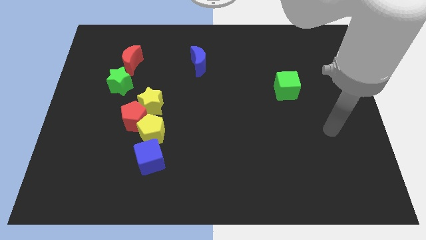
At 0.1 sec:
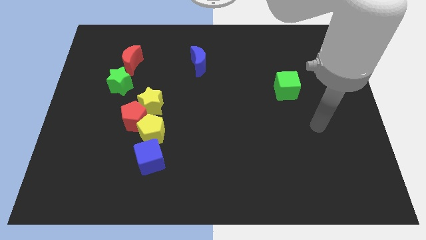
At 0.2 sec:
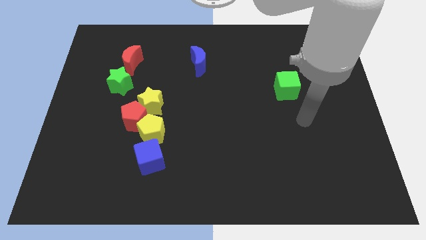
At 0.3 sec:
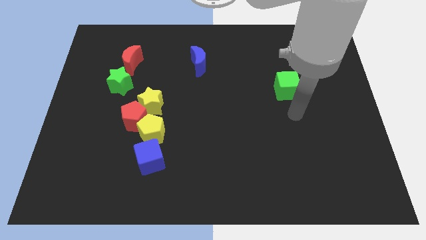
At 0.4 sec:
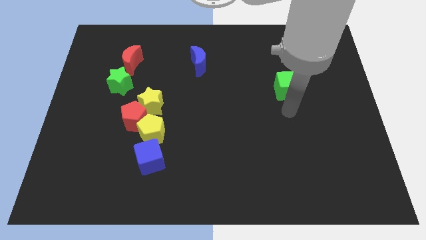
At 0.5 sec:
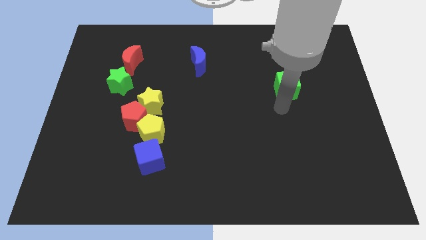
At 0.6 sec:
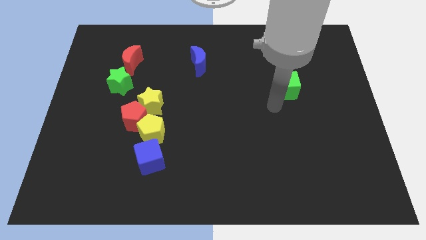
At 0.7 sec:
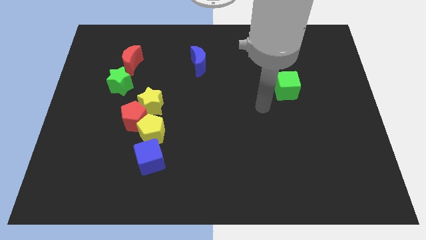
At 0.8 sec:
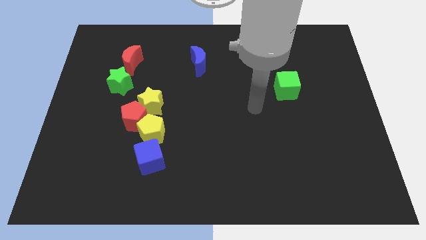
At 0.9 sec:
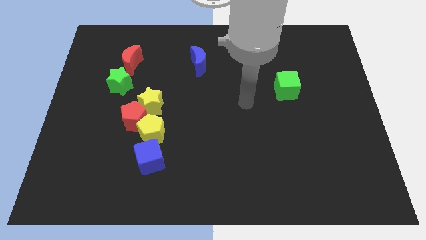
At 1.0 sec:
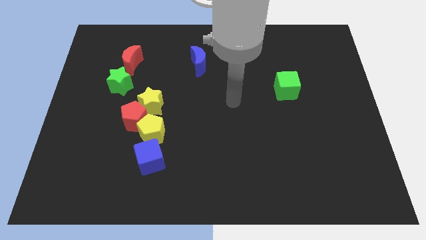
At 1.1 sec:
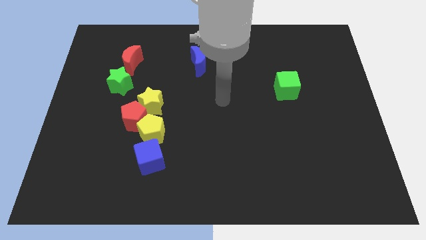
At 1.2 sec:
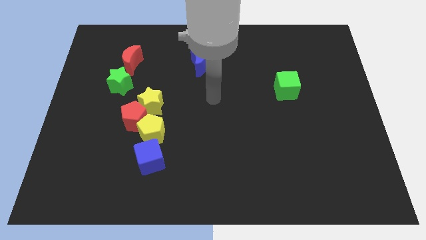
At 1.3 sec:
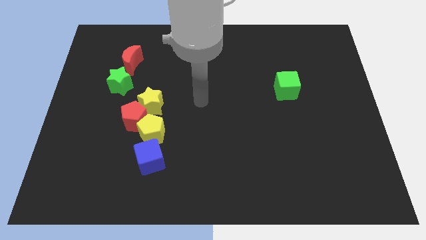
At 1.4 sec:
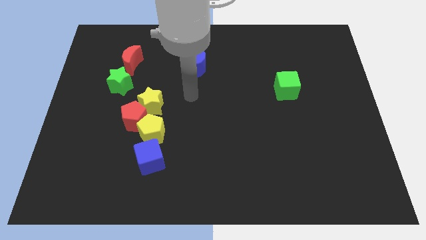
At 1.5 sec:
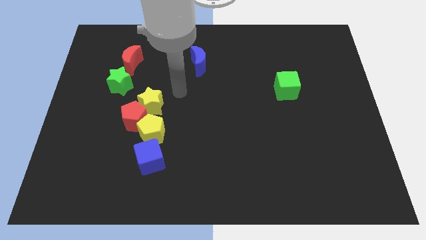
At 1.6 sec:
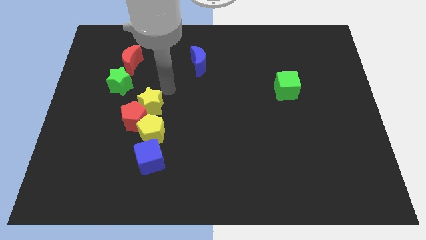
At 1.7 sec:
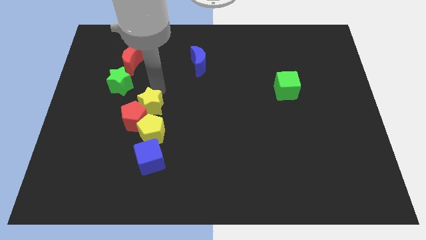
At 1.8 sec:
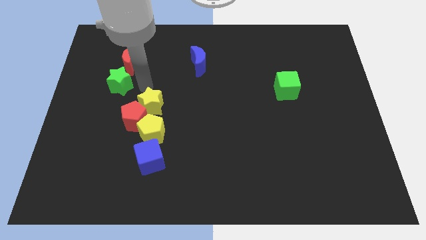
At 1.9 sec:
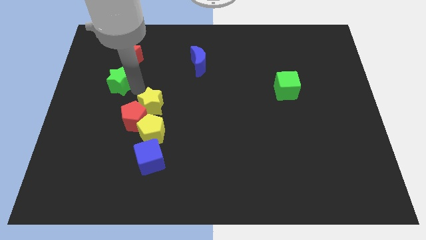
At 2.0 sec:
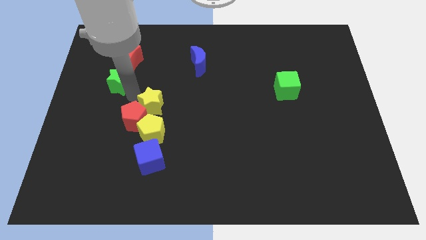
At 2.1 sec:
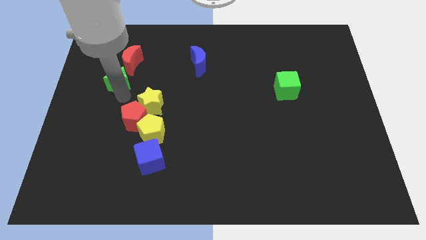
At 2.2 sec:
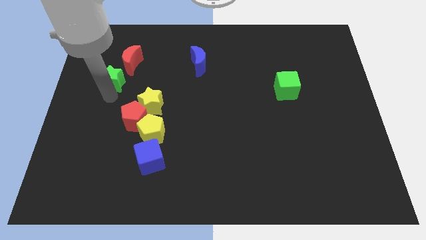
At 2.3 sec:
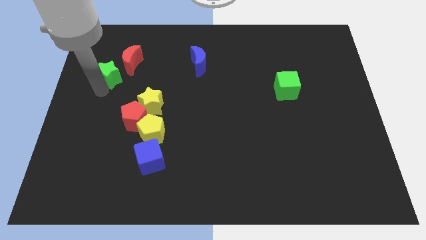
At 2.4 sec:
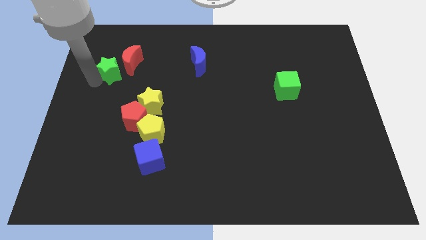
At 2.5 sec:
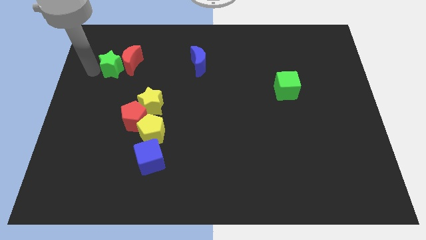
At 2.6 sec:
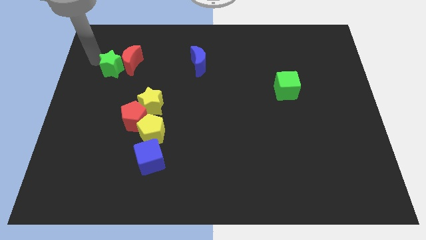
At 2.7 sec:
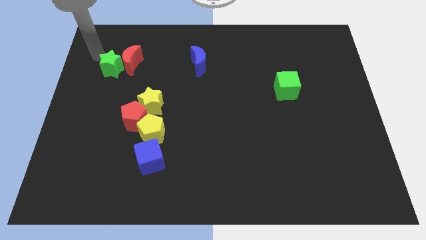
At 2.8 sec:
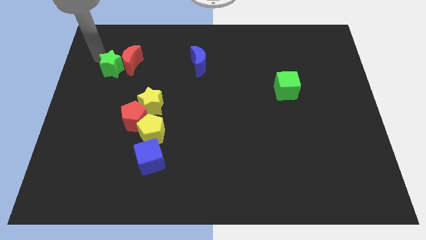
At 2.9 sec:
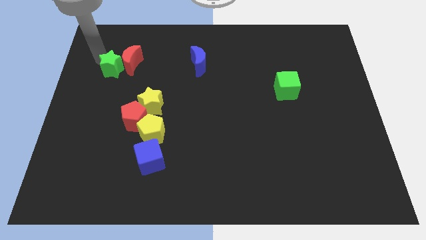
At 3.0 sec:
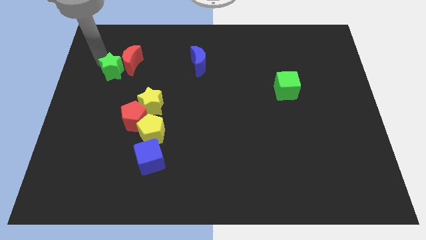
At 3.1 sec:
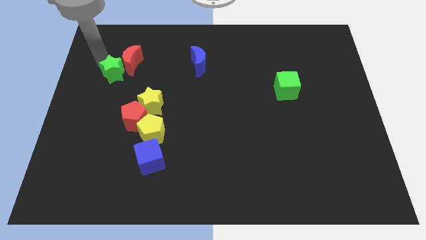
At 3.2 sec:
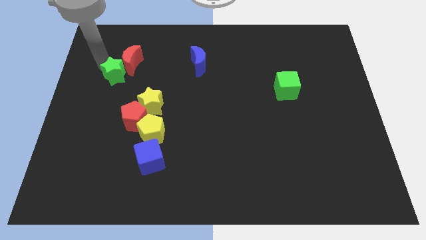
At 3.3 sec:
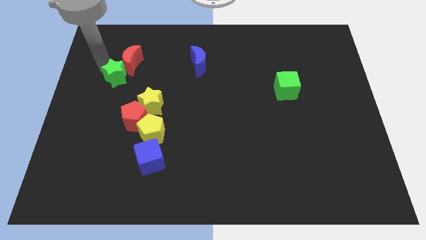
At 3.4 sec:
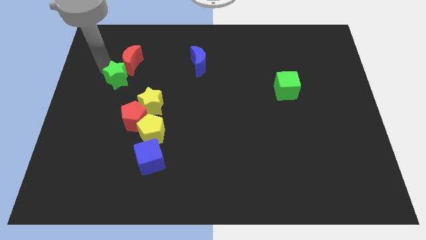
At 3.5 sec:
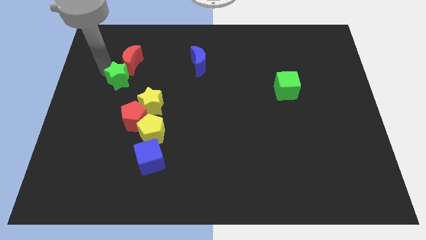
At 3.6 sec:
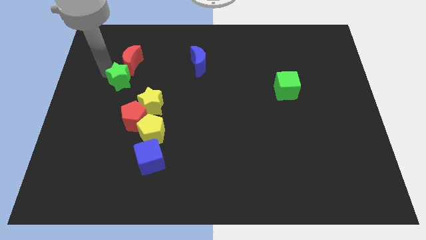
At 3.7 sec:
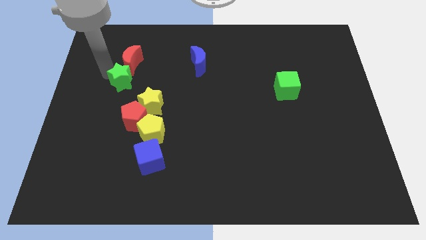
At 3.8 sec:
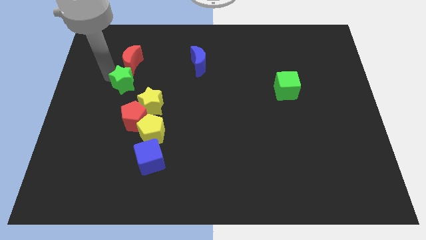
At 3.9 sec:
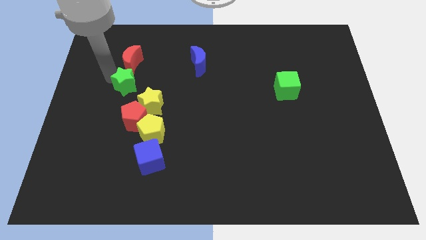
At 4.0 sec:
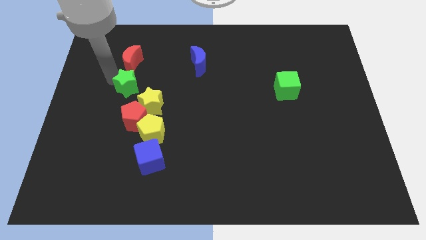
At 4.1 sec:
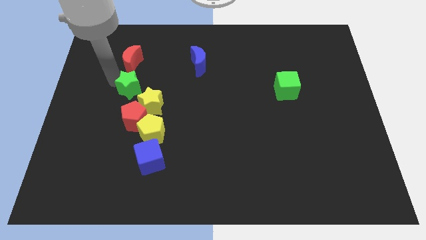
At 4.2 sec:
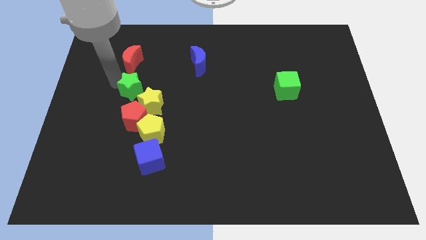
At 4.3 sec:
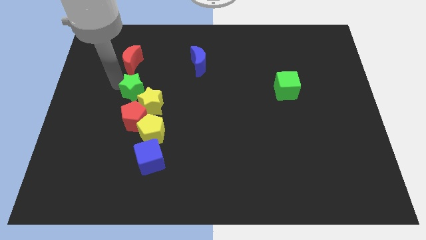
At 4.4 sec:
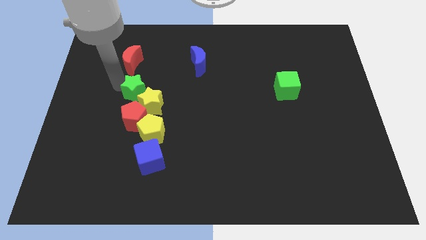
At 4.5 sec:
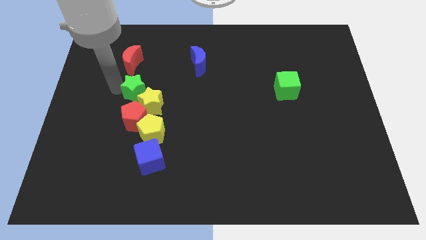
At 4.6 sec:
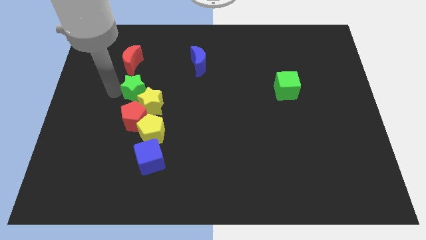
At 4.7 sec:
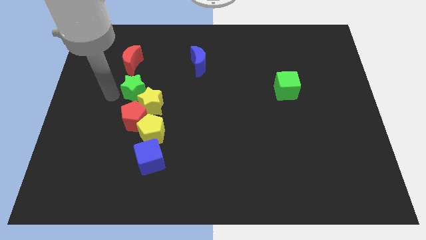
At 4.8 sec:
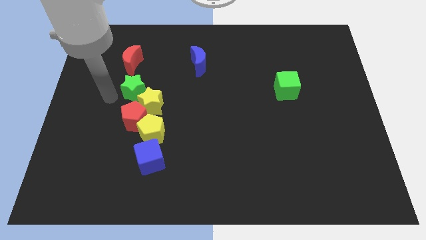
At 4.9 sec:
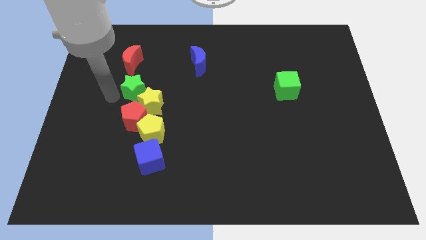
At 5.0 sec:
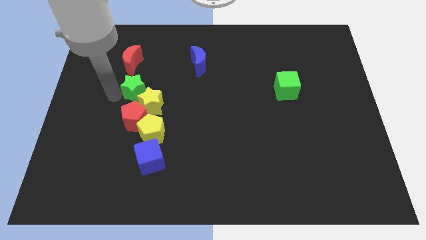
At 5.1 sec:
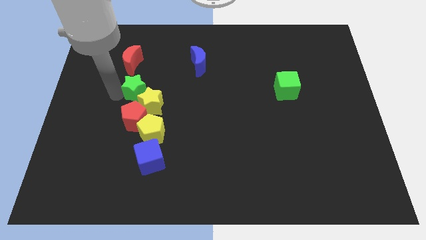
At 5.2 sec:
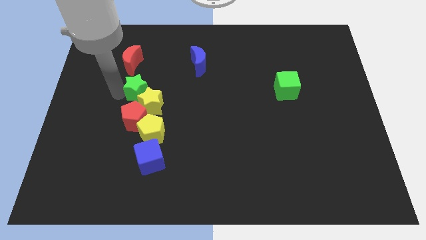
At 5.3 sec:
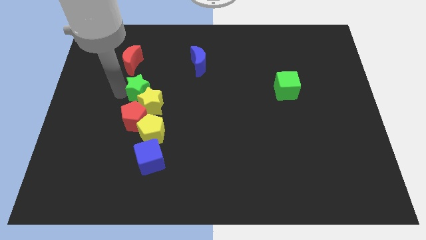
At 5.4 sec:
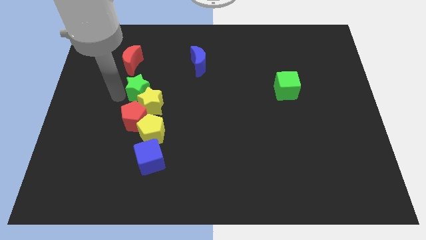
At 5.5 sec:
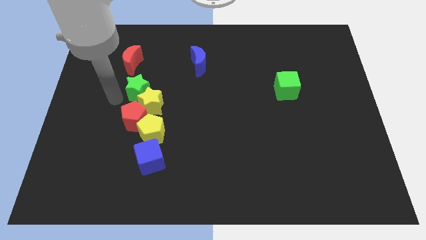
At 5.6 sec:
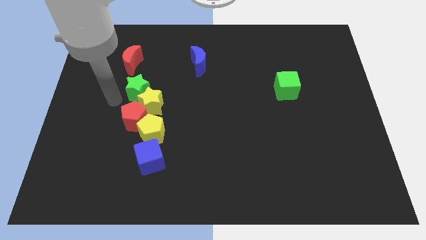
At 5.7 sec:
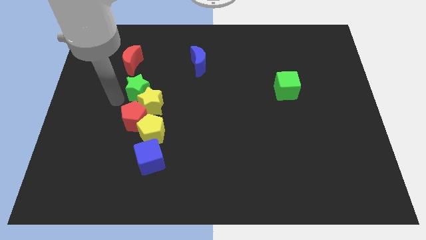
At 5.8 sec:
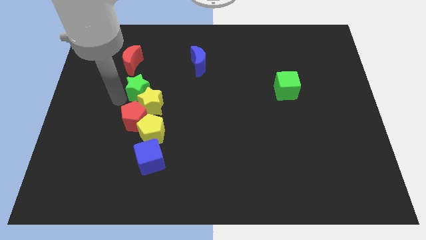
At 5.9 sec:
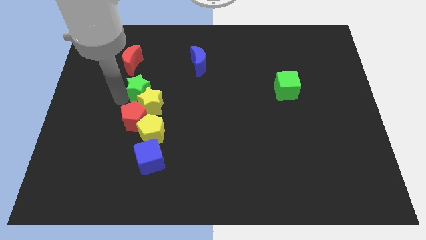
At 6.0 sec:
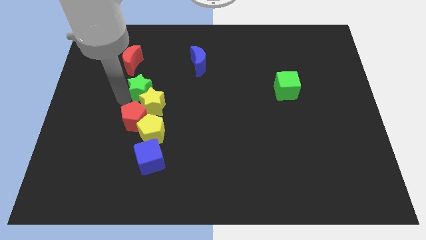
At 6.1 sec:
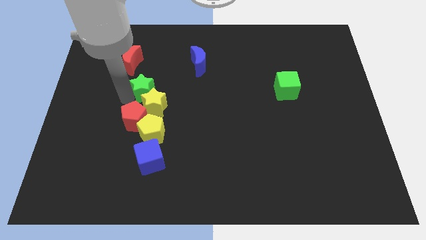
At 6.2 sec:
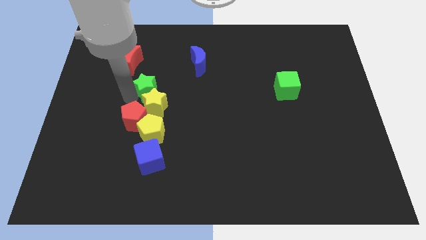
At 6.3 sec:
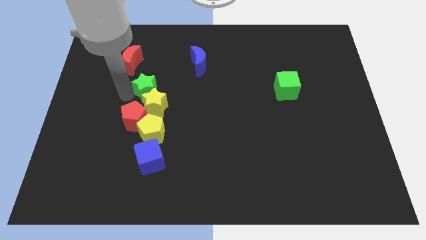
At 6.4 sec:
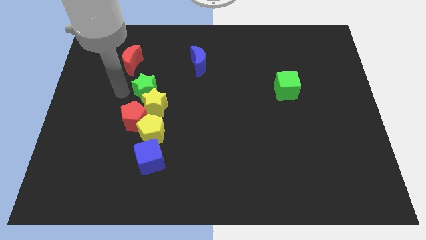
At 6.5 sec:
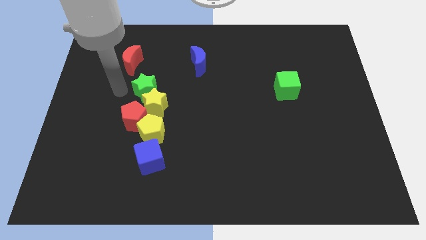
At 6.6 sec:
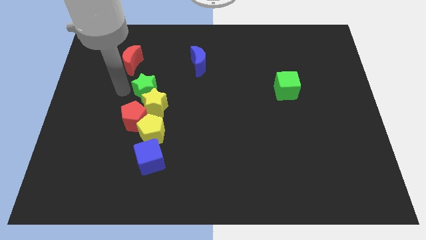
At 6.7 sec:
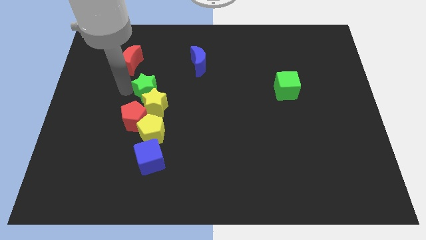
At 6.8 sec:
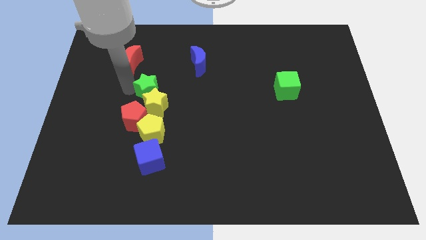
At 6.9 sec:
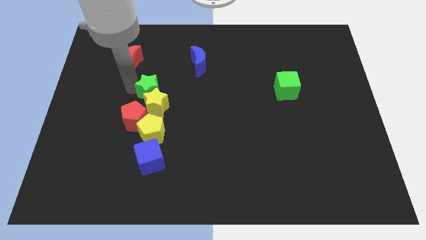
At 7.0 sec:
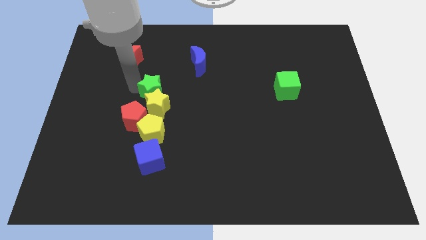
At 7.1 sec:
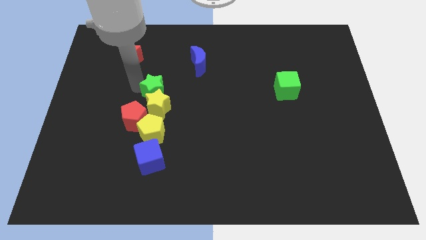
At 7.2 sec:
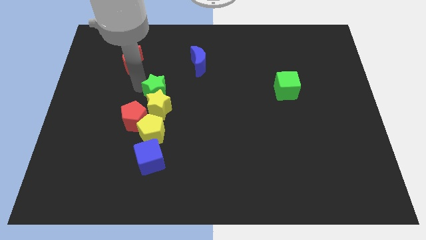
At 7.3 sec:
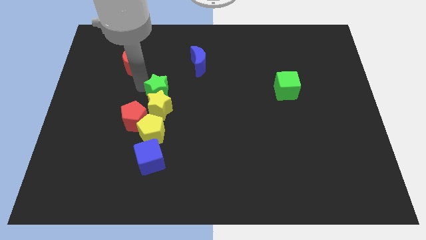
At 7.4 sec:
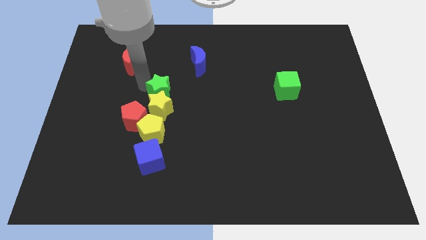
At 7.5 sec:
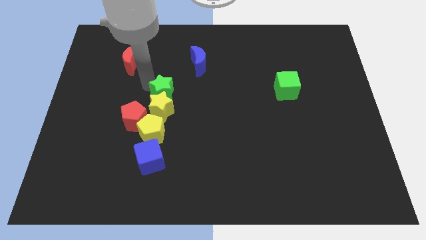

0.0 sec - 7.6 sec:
push the green star to the center of the board

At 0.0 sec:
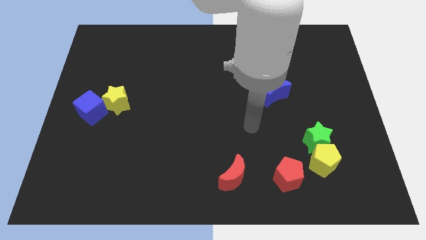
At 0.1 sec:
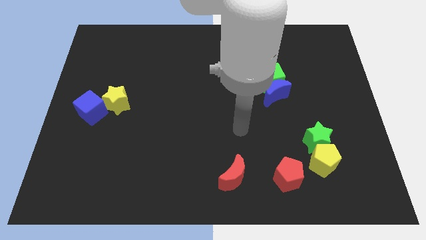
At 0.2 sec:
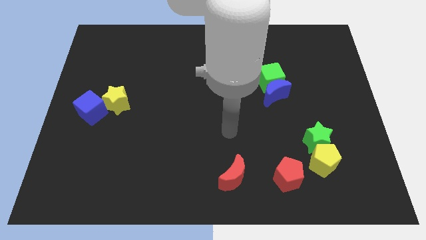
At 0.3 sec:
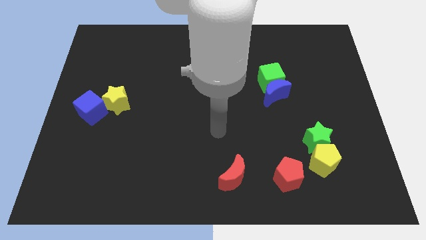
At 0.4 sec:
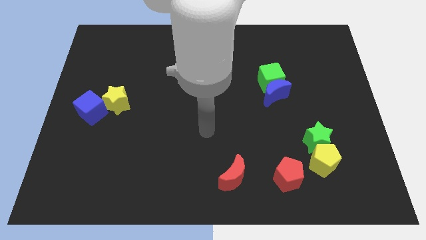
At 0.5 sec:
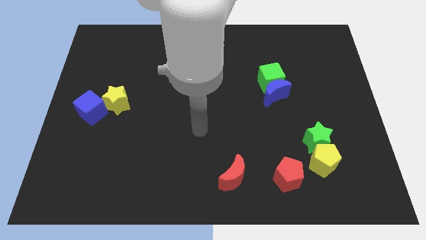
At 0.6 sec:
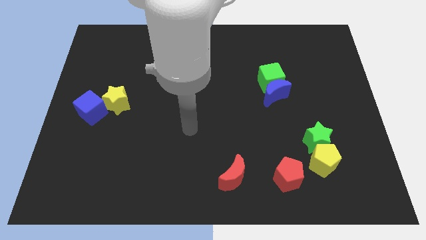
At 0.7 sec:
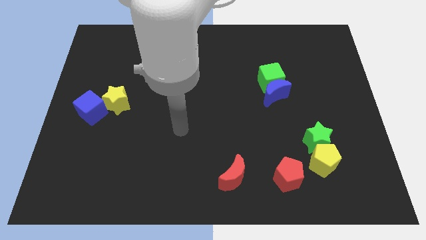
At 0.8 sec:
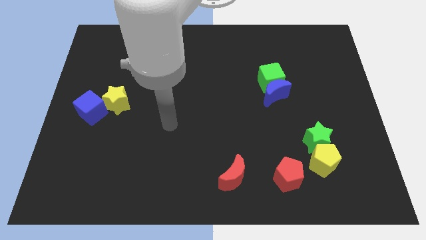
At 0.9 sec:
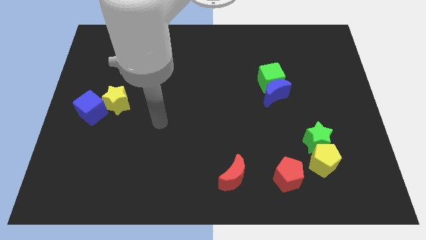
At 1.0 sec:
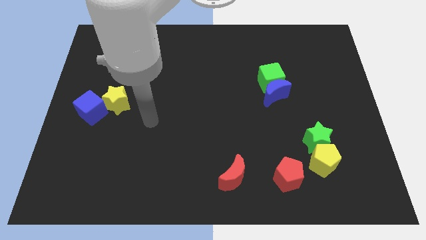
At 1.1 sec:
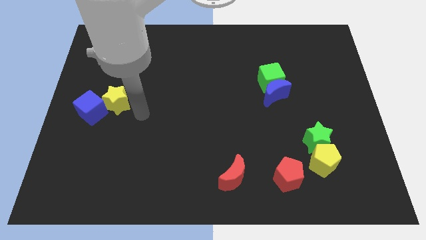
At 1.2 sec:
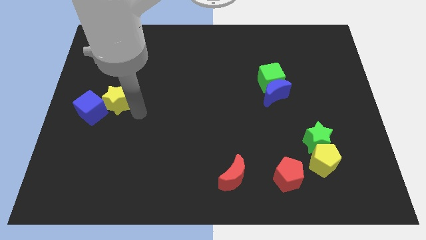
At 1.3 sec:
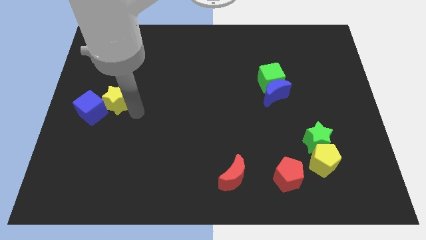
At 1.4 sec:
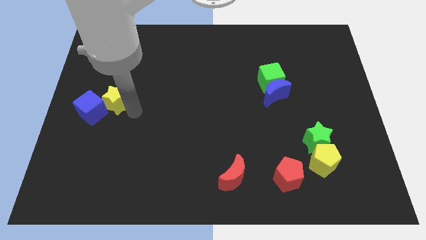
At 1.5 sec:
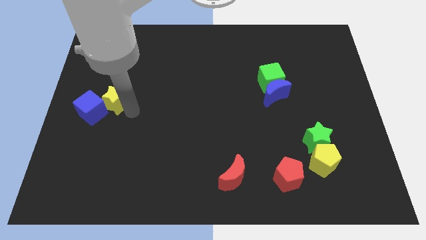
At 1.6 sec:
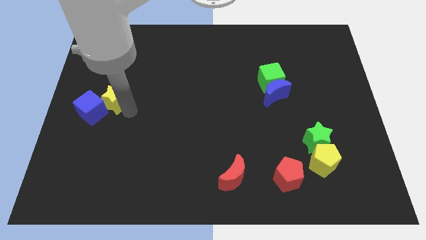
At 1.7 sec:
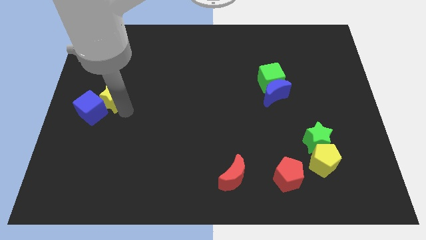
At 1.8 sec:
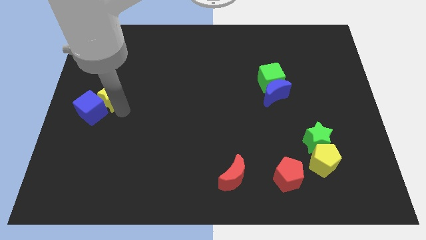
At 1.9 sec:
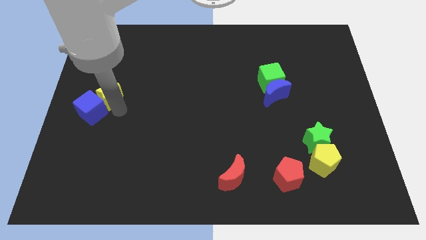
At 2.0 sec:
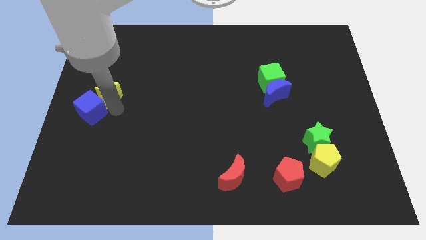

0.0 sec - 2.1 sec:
slide the yellow star to the center left
